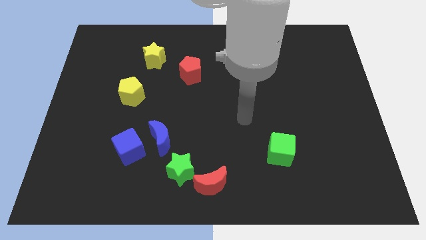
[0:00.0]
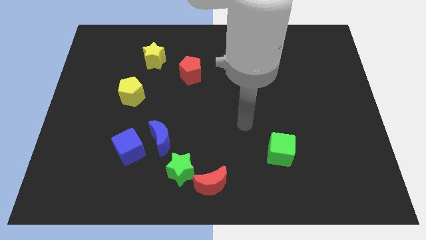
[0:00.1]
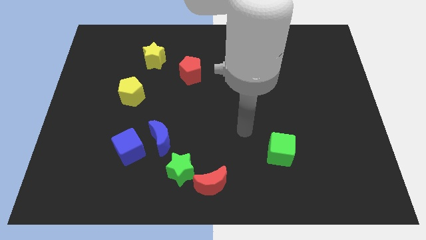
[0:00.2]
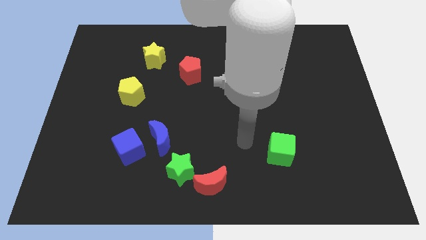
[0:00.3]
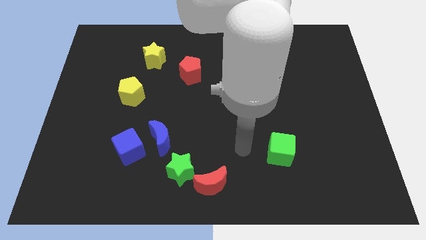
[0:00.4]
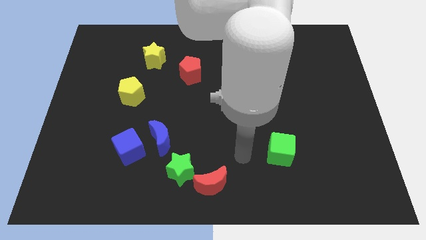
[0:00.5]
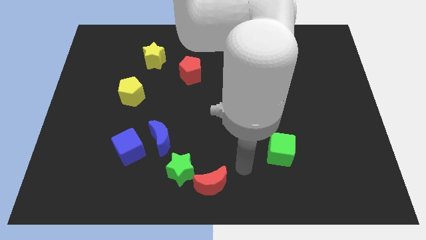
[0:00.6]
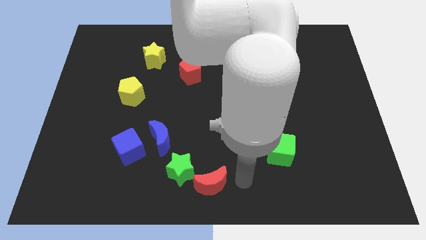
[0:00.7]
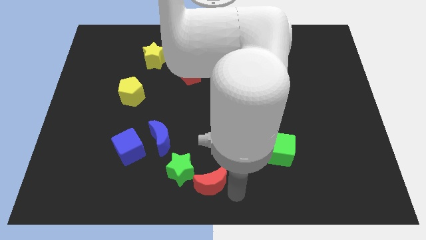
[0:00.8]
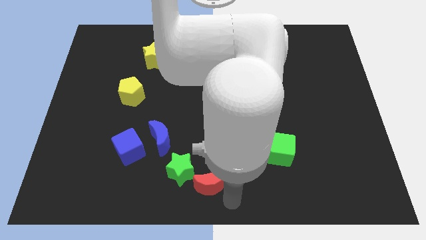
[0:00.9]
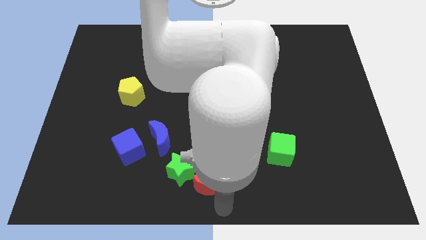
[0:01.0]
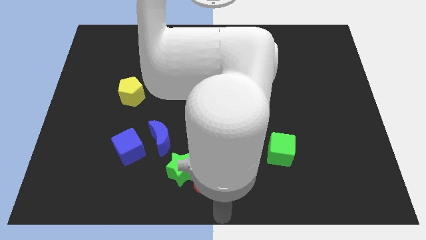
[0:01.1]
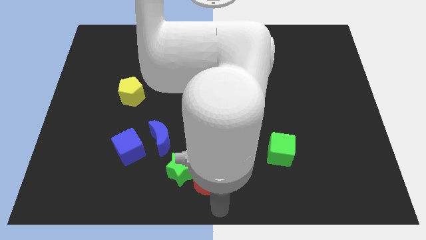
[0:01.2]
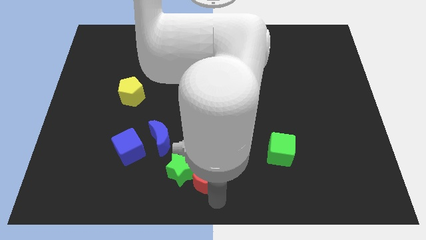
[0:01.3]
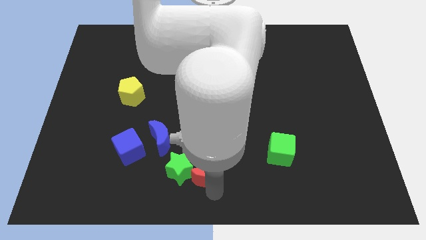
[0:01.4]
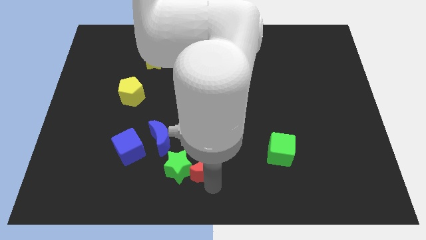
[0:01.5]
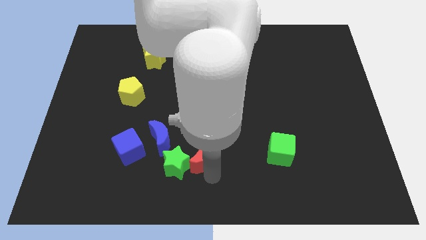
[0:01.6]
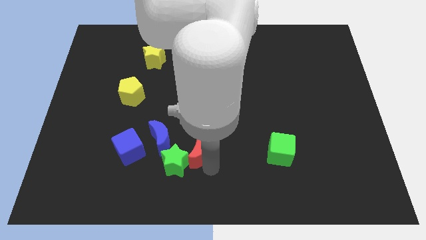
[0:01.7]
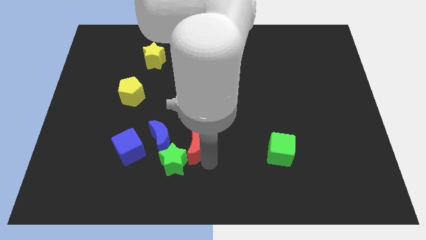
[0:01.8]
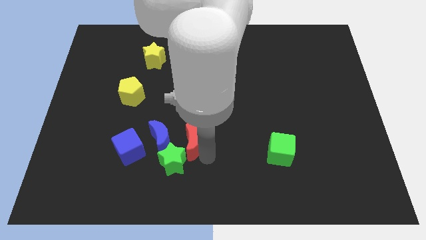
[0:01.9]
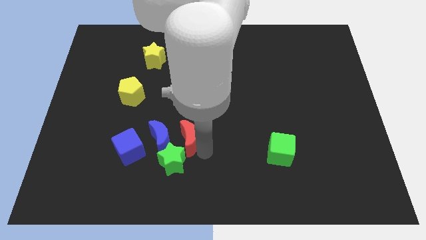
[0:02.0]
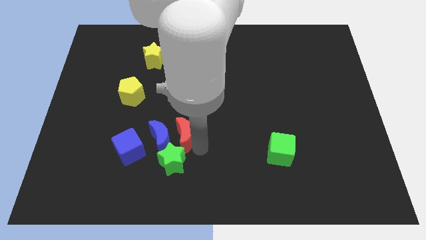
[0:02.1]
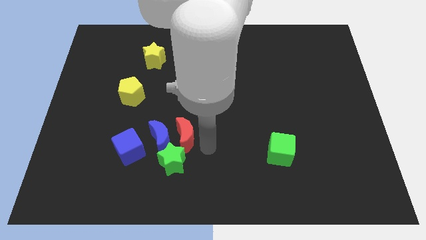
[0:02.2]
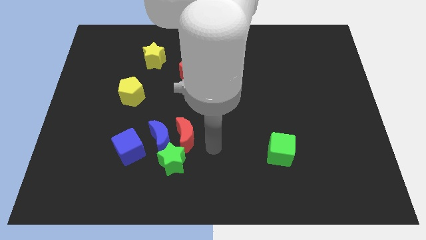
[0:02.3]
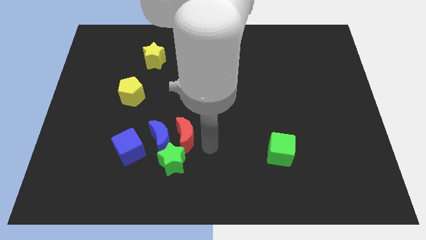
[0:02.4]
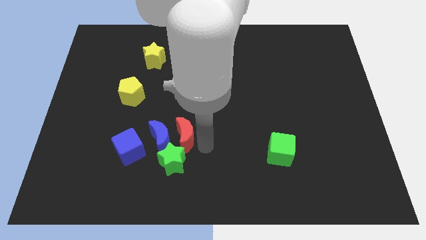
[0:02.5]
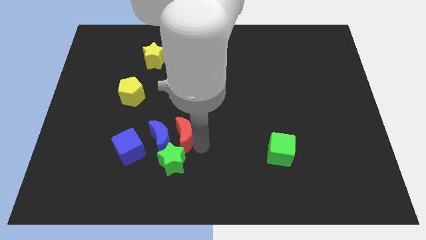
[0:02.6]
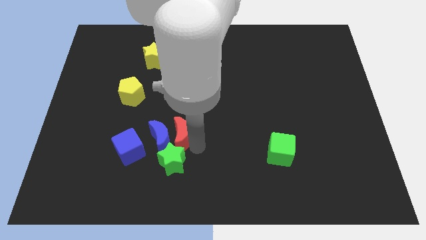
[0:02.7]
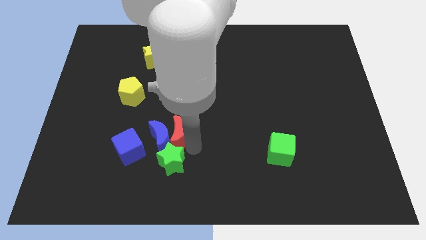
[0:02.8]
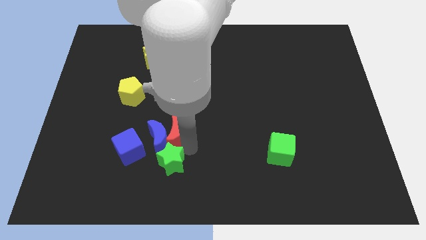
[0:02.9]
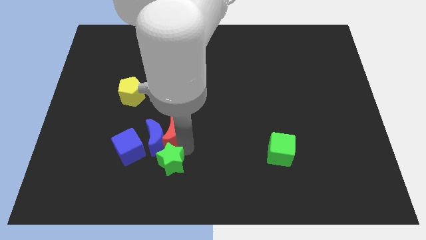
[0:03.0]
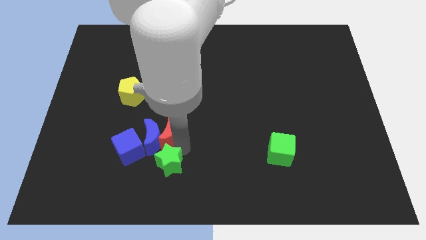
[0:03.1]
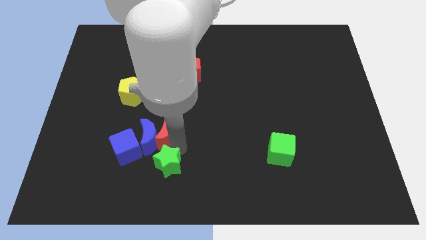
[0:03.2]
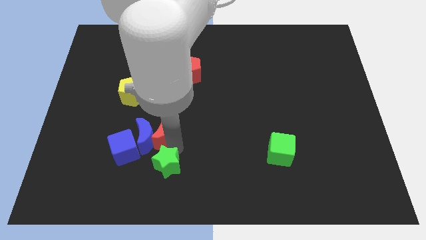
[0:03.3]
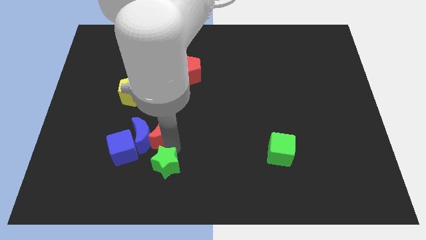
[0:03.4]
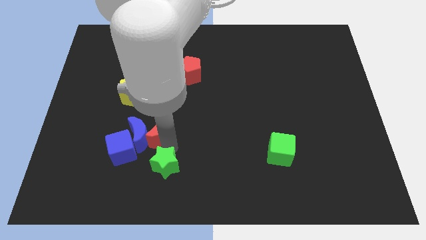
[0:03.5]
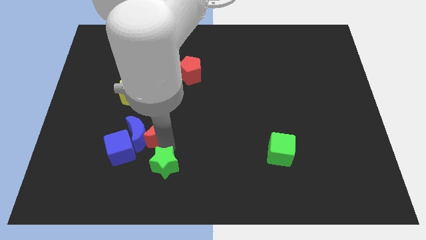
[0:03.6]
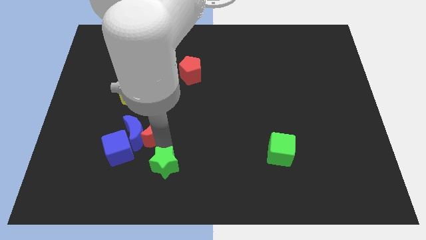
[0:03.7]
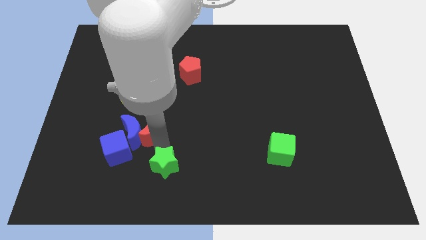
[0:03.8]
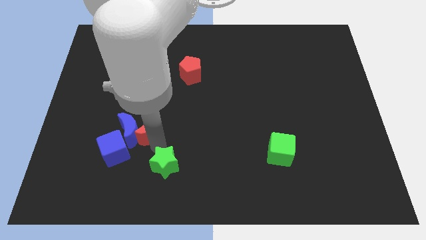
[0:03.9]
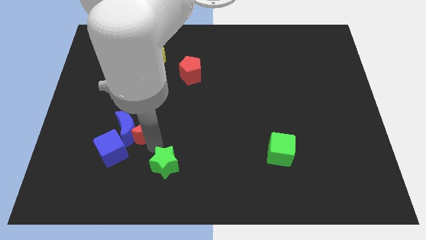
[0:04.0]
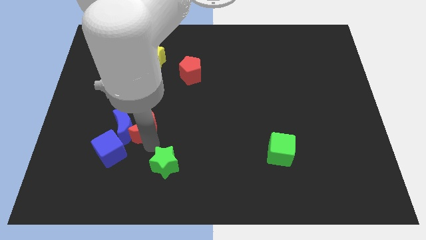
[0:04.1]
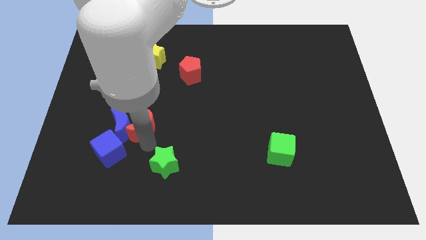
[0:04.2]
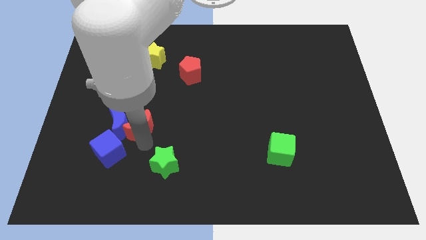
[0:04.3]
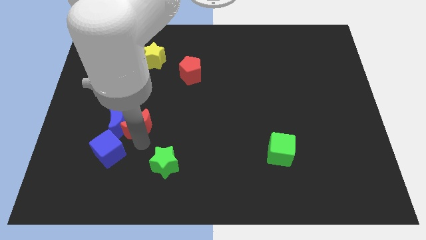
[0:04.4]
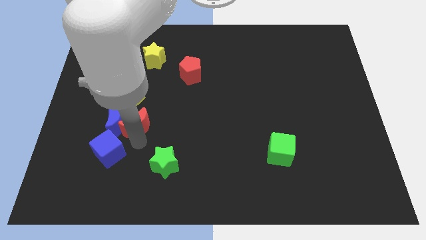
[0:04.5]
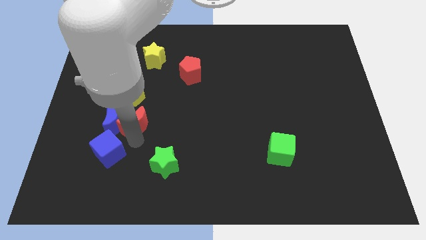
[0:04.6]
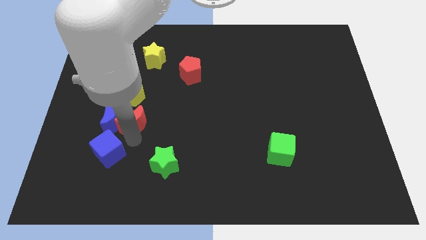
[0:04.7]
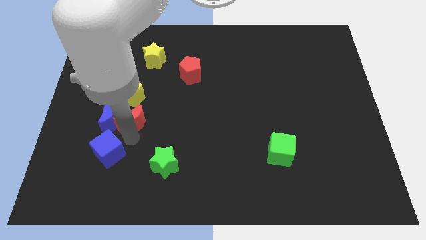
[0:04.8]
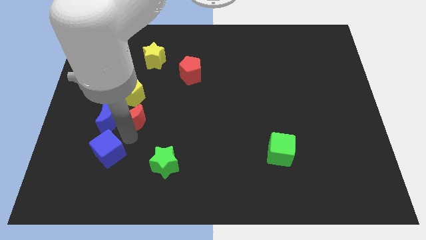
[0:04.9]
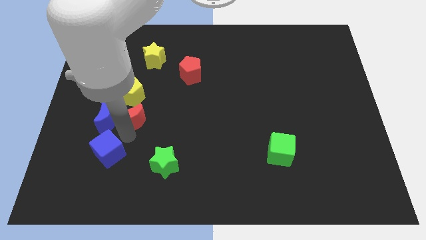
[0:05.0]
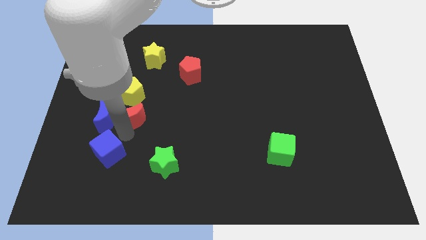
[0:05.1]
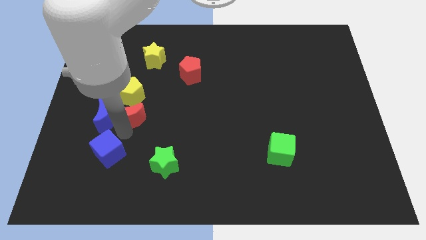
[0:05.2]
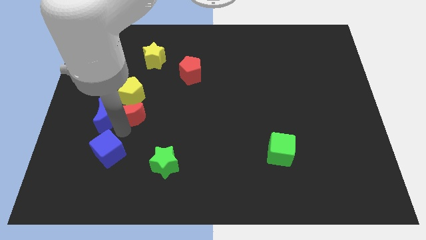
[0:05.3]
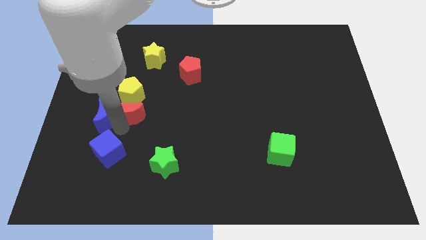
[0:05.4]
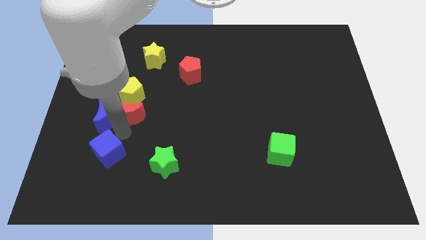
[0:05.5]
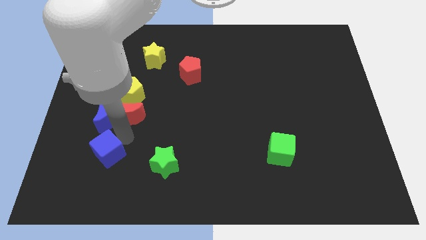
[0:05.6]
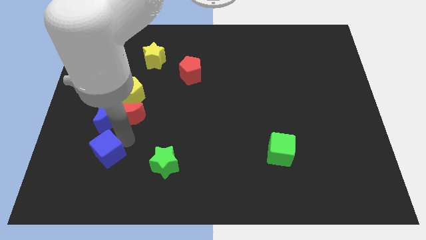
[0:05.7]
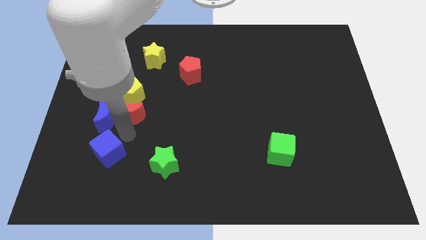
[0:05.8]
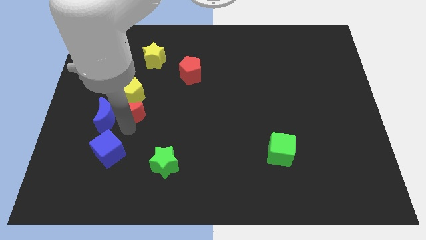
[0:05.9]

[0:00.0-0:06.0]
put the red moon close to the yellow pentagon

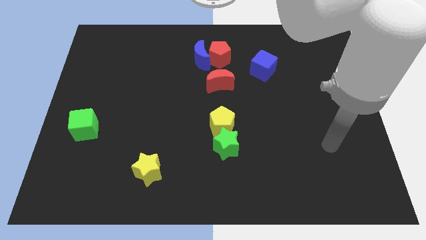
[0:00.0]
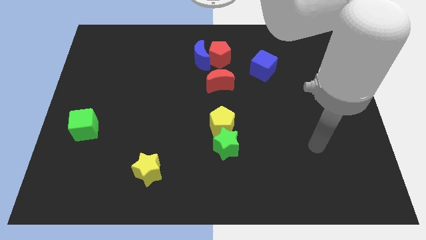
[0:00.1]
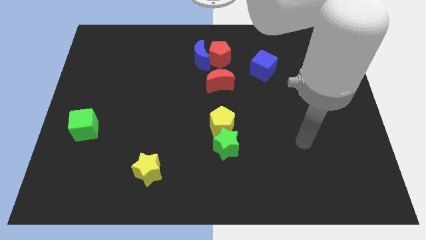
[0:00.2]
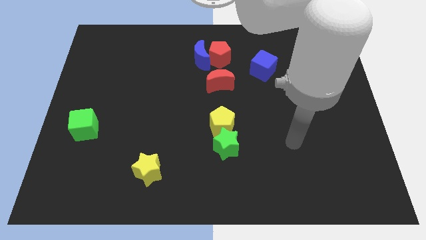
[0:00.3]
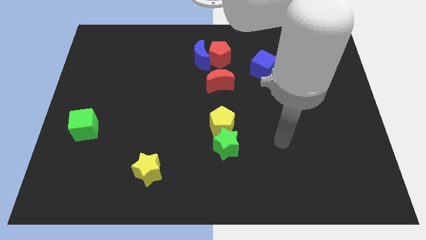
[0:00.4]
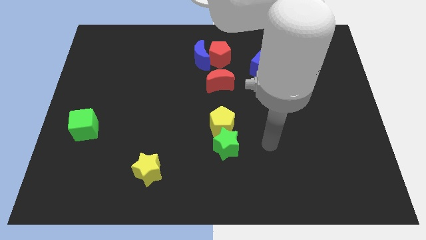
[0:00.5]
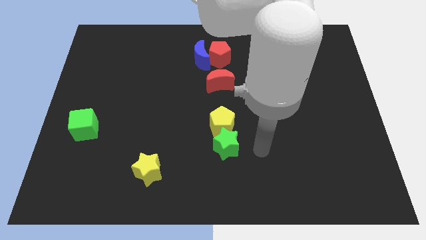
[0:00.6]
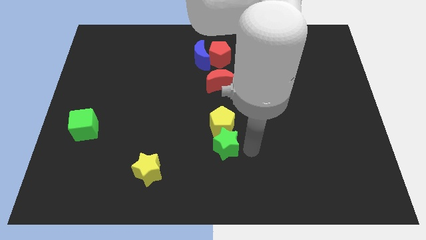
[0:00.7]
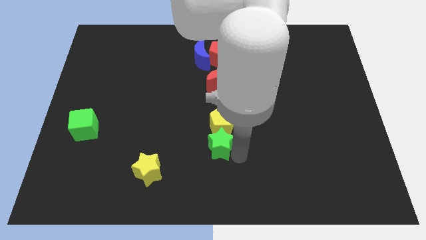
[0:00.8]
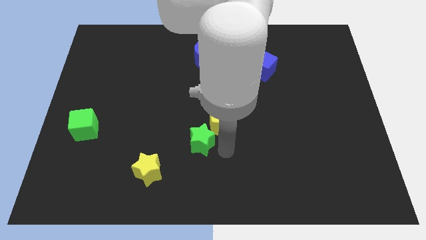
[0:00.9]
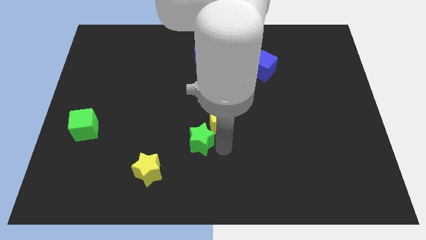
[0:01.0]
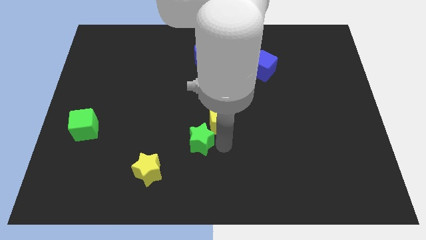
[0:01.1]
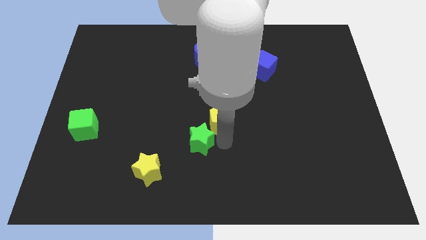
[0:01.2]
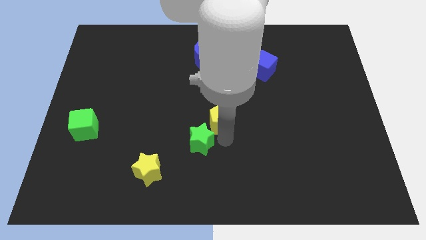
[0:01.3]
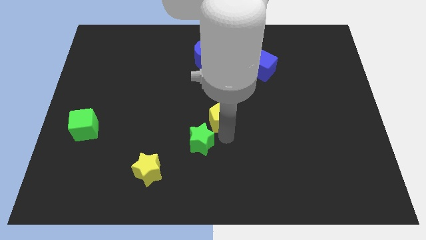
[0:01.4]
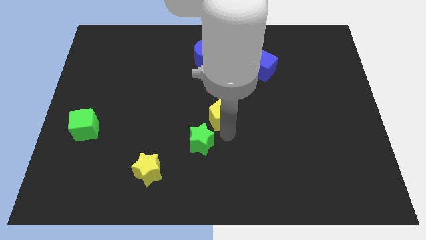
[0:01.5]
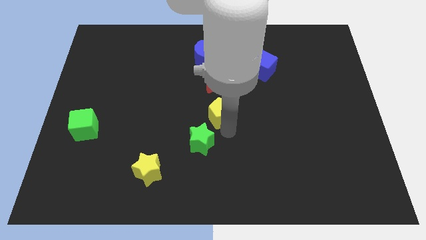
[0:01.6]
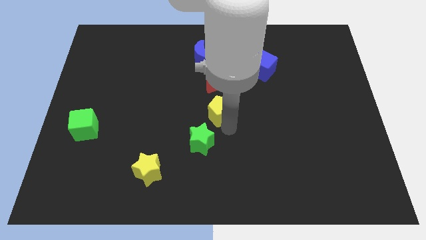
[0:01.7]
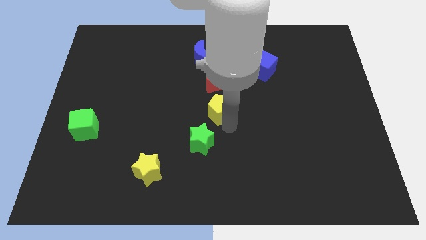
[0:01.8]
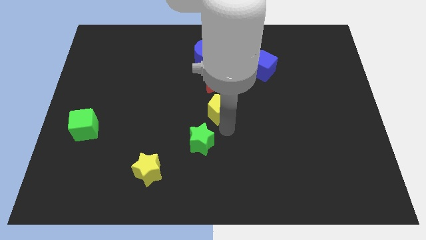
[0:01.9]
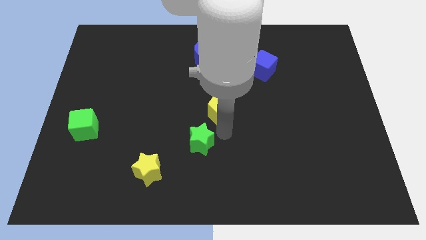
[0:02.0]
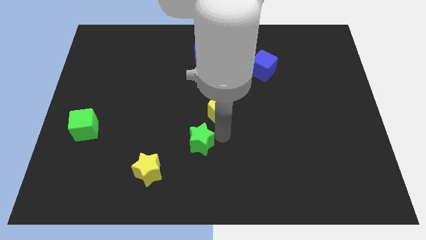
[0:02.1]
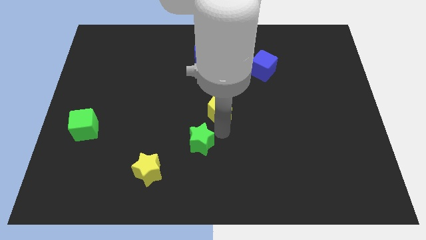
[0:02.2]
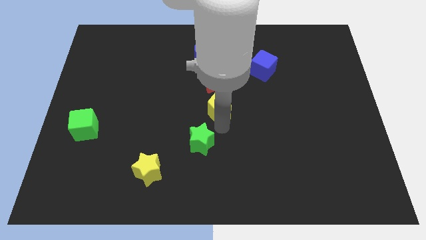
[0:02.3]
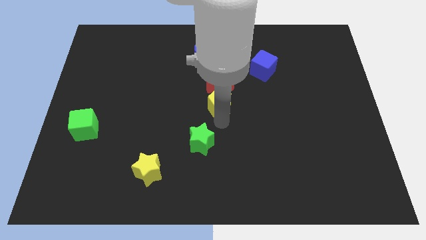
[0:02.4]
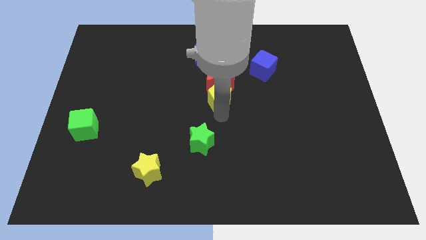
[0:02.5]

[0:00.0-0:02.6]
put the yellow pentagon close to the red moon
